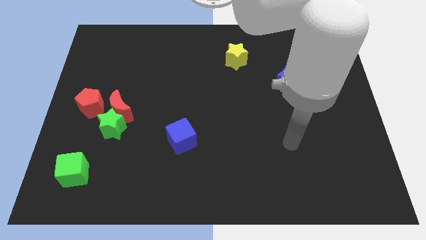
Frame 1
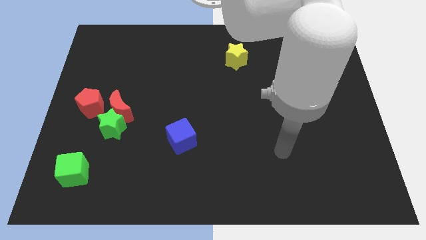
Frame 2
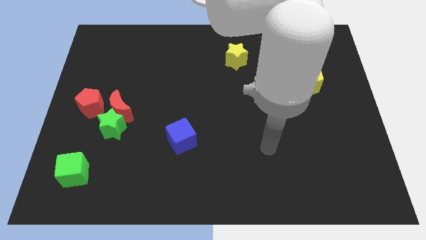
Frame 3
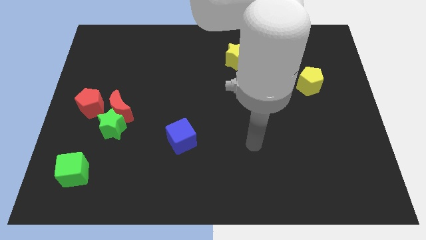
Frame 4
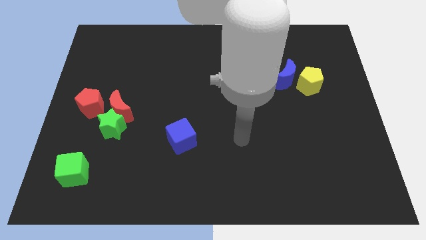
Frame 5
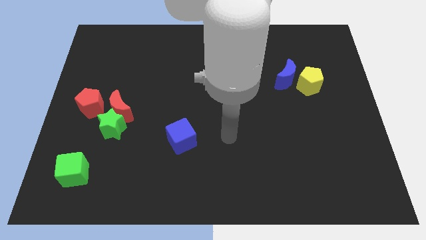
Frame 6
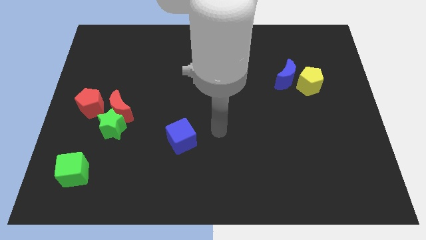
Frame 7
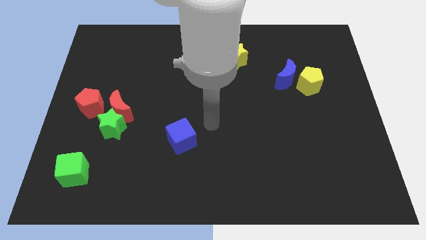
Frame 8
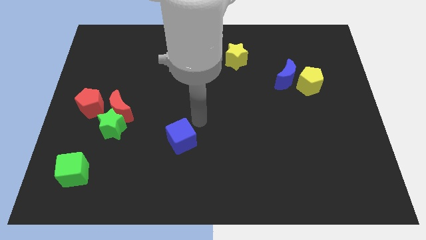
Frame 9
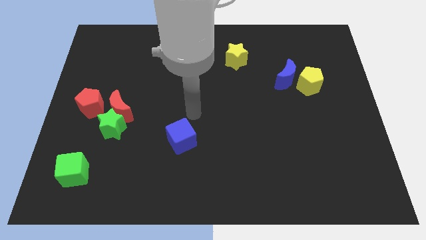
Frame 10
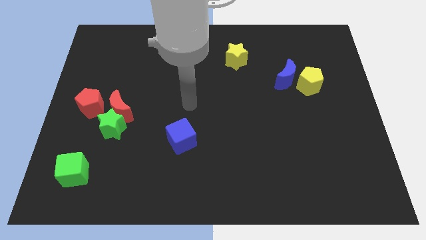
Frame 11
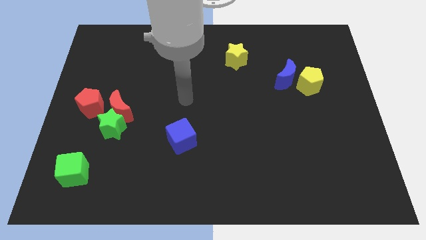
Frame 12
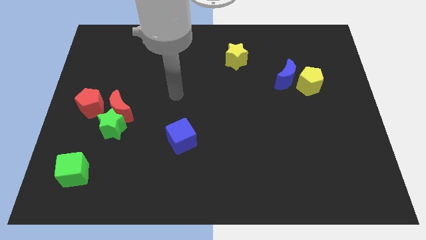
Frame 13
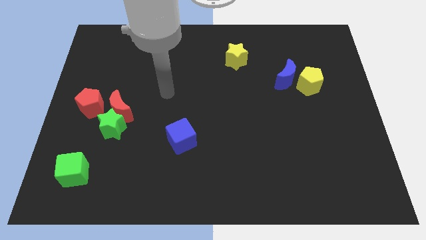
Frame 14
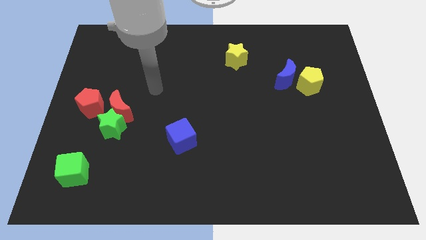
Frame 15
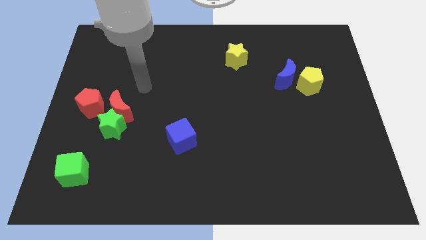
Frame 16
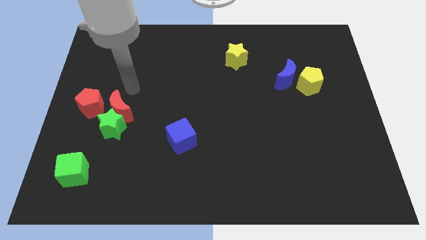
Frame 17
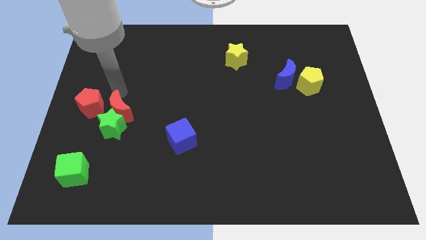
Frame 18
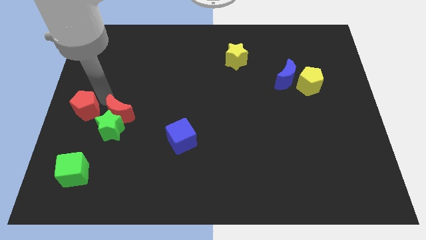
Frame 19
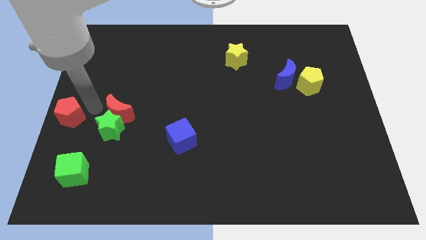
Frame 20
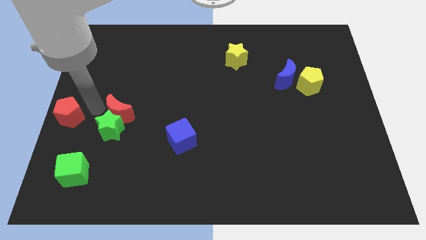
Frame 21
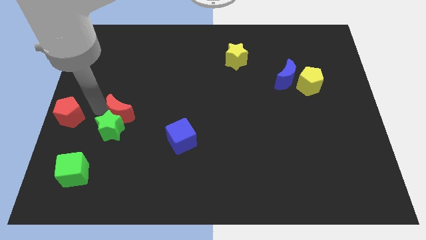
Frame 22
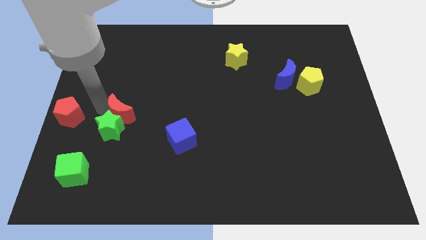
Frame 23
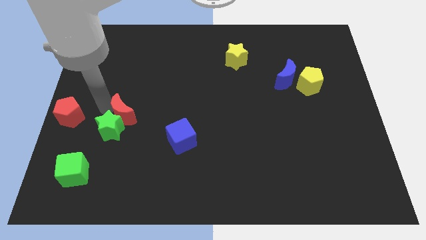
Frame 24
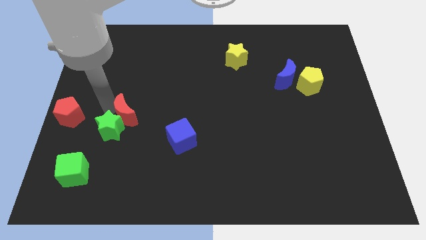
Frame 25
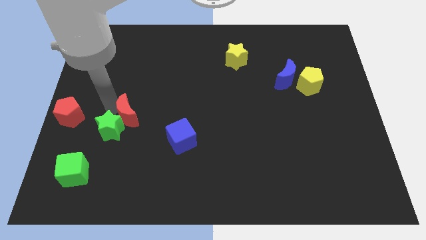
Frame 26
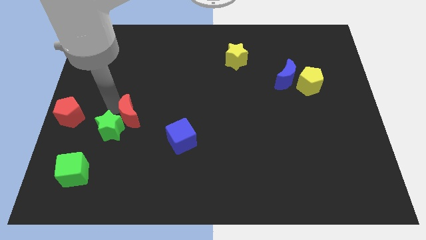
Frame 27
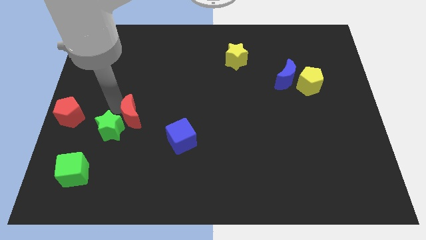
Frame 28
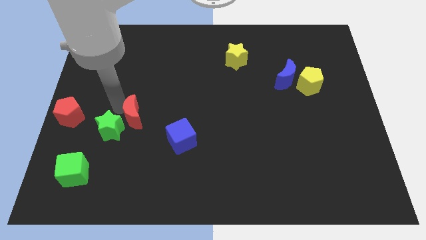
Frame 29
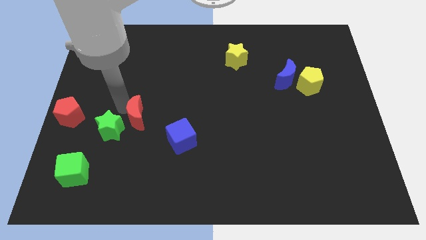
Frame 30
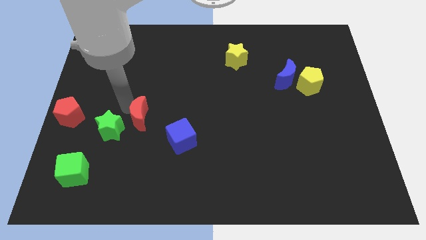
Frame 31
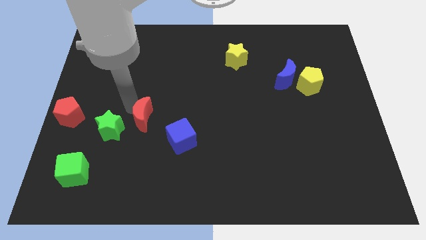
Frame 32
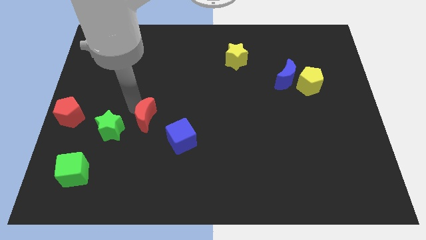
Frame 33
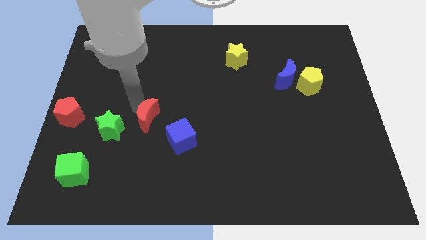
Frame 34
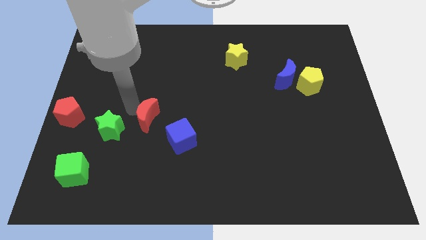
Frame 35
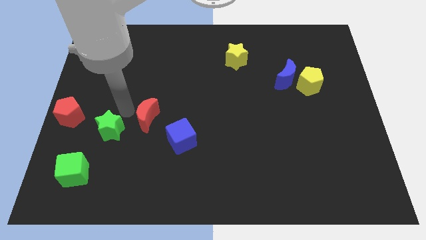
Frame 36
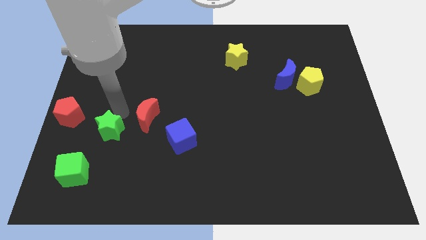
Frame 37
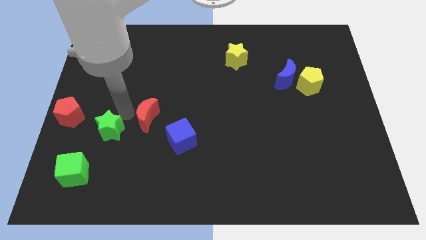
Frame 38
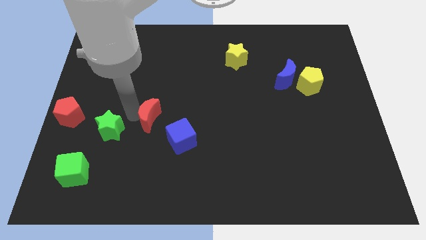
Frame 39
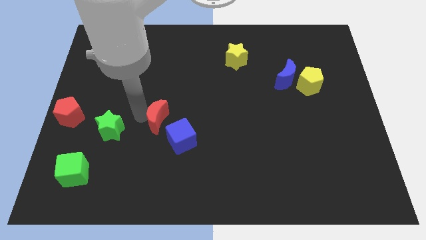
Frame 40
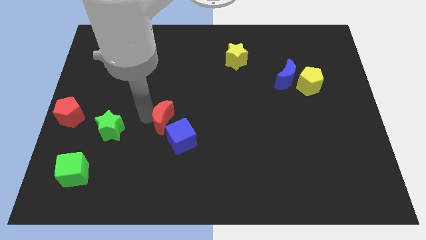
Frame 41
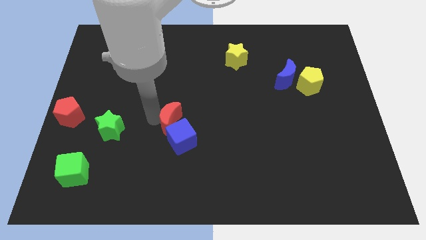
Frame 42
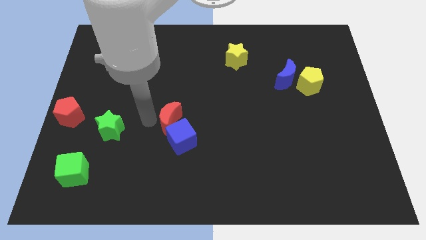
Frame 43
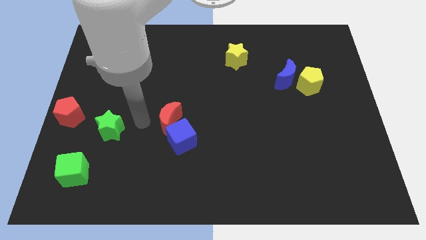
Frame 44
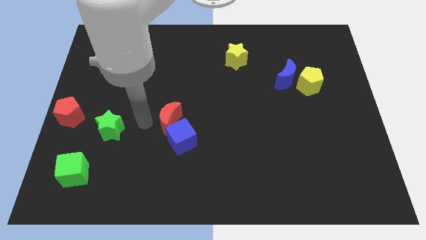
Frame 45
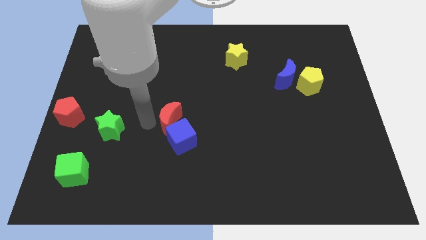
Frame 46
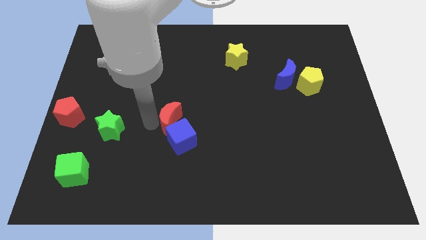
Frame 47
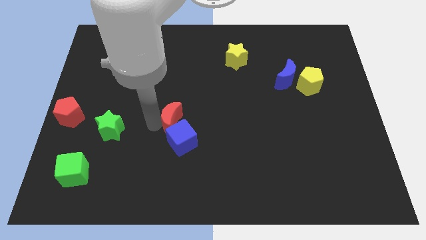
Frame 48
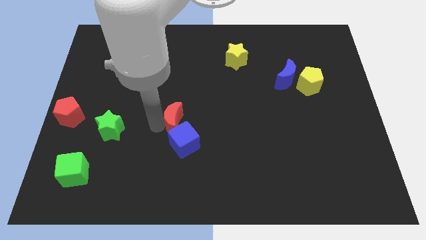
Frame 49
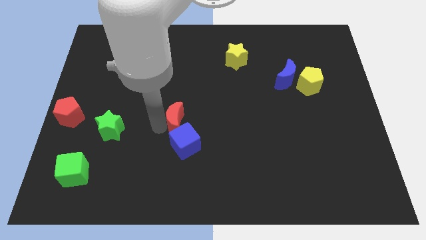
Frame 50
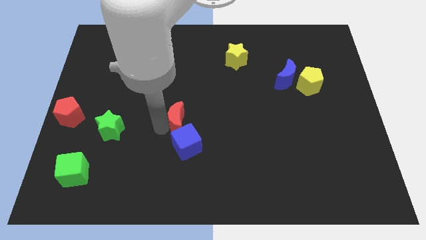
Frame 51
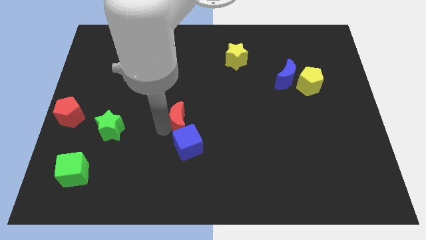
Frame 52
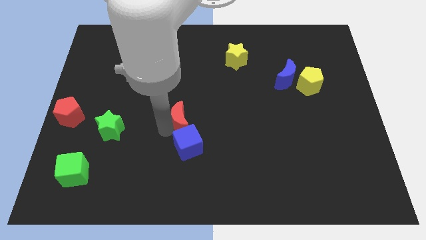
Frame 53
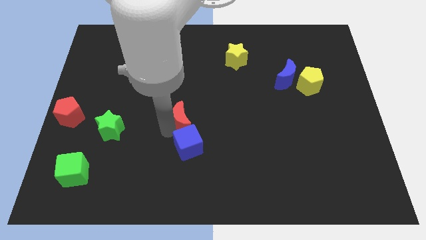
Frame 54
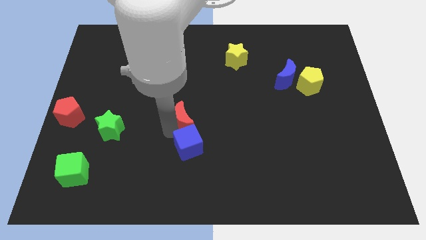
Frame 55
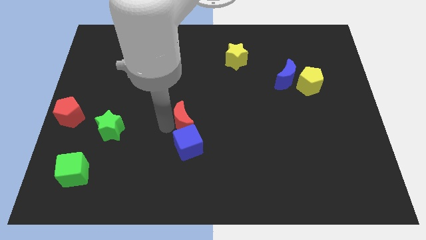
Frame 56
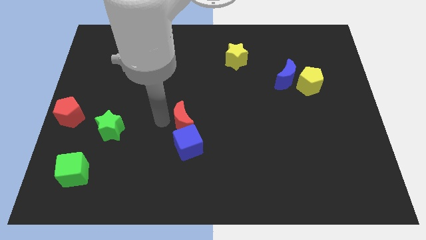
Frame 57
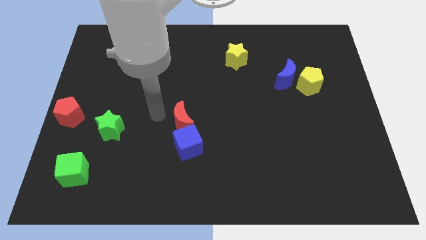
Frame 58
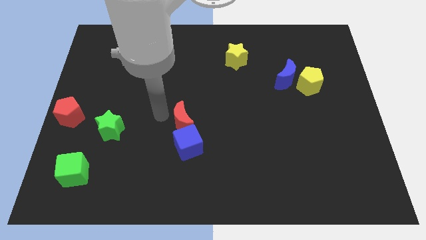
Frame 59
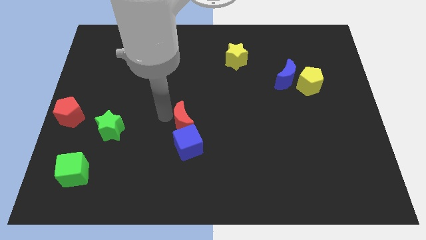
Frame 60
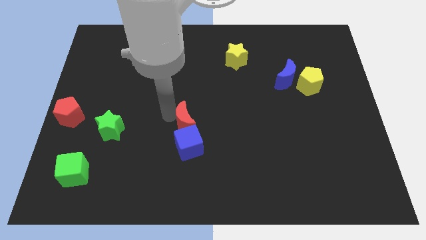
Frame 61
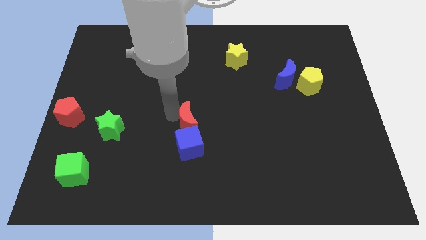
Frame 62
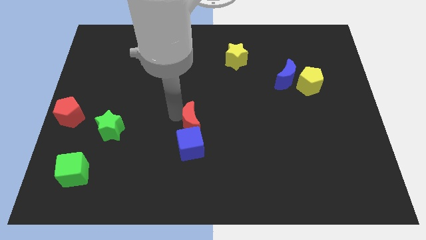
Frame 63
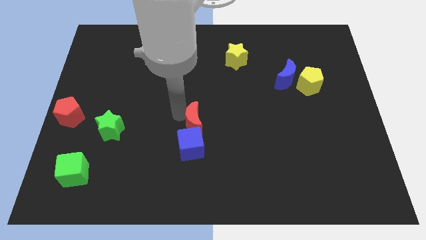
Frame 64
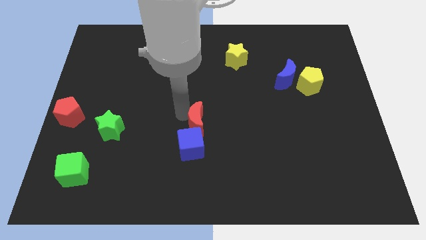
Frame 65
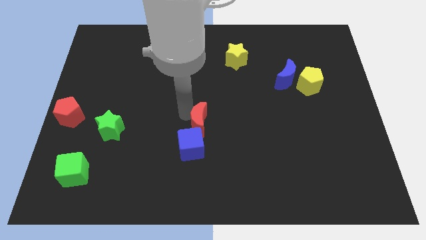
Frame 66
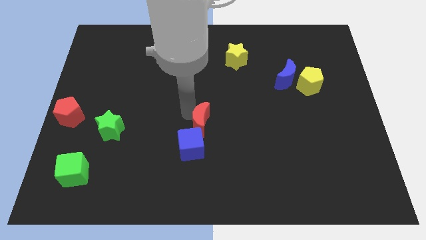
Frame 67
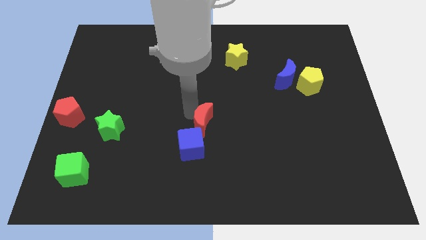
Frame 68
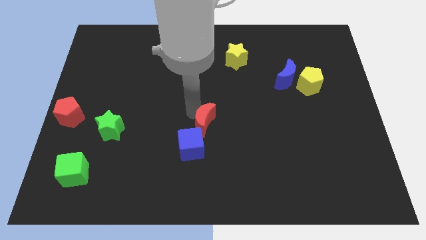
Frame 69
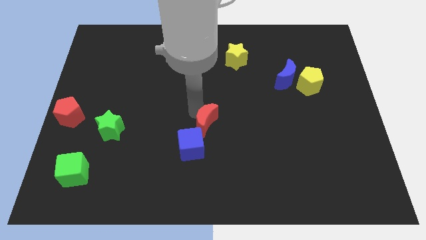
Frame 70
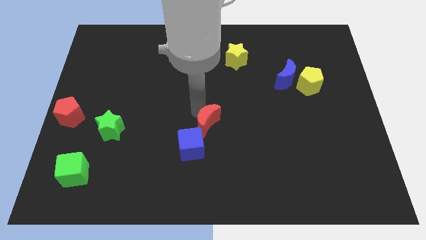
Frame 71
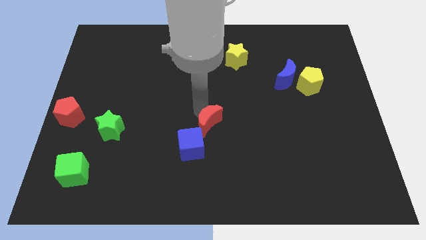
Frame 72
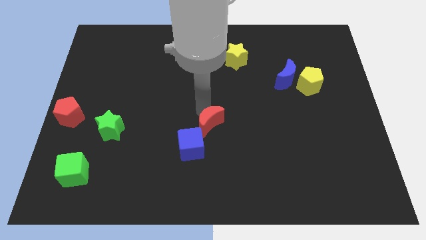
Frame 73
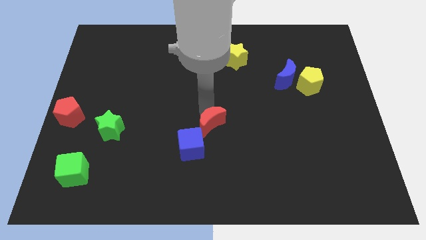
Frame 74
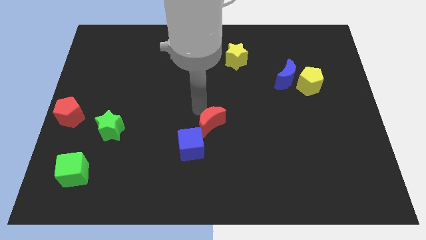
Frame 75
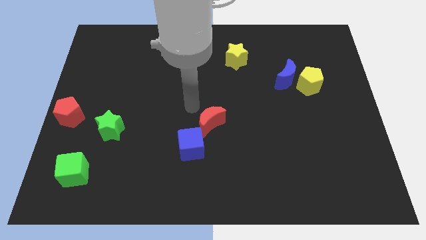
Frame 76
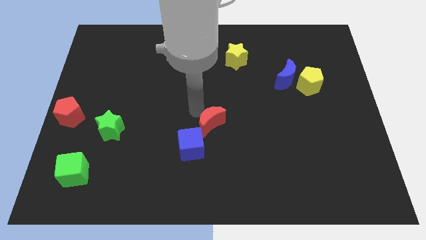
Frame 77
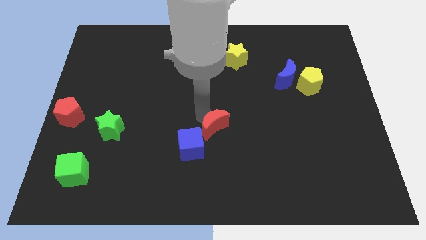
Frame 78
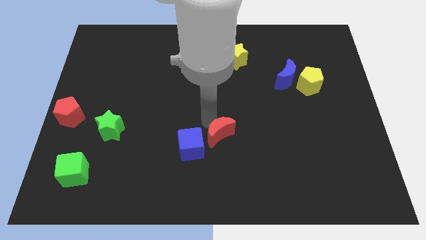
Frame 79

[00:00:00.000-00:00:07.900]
move the red moon to the right side of the blue cube

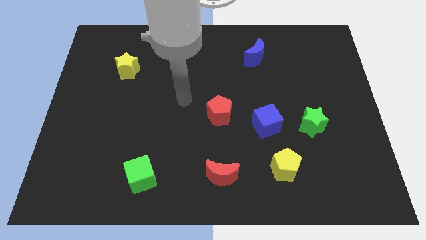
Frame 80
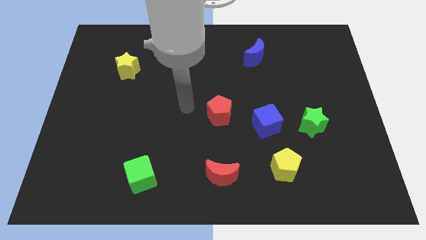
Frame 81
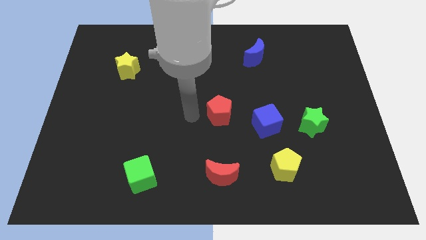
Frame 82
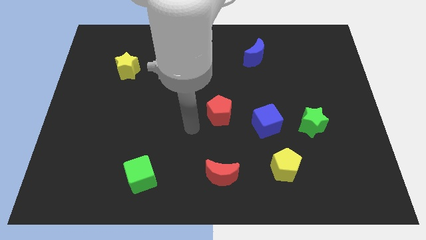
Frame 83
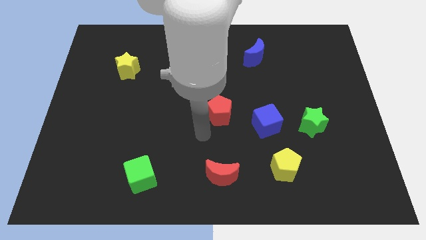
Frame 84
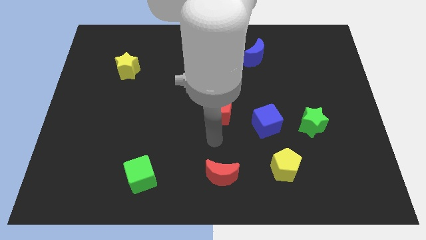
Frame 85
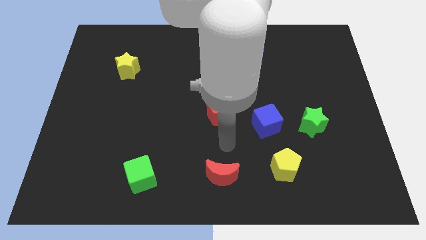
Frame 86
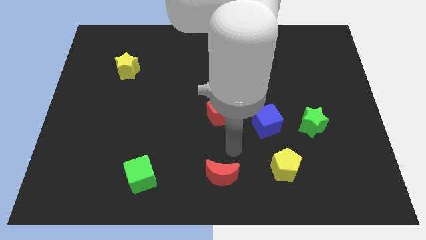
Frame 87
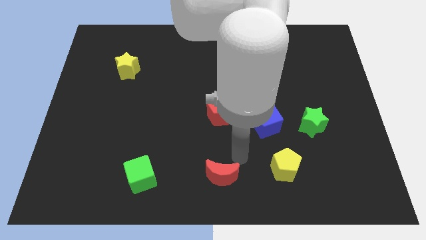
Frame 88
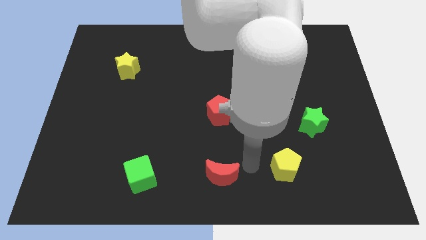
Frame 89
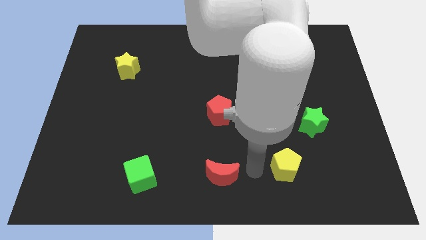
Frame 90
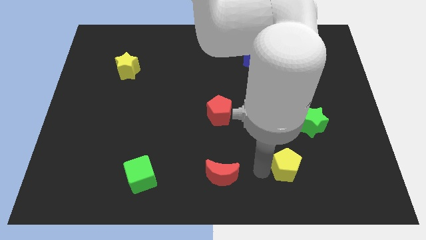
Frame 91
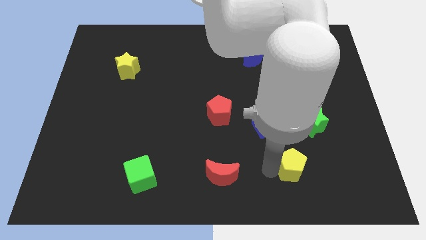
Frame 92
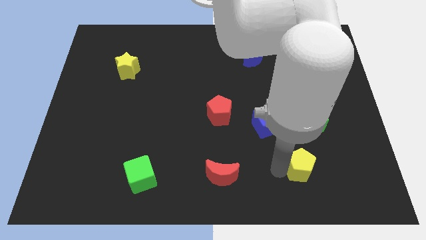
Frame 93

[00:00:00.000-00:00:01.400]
slide the yellow pentagon to the bottom of the green star
